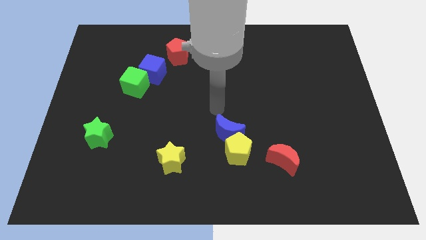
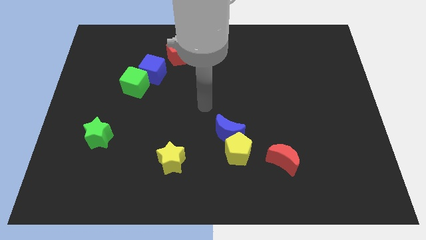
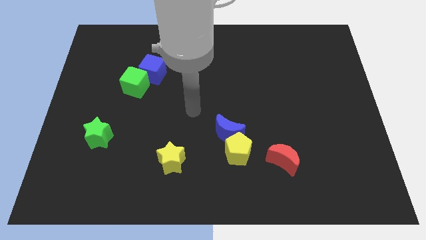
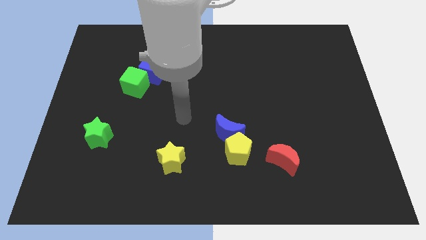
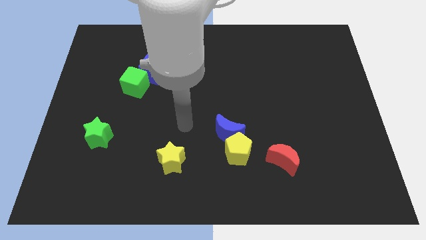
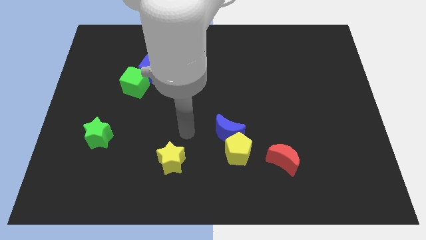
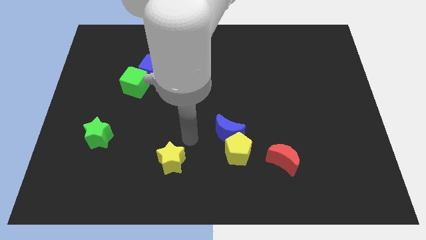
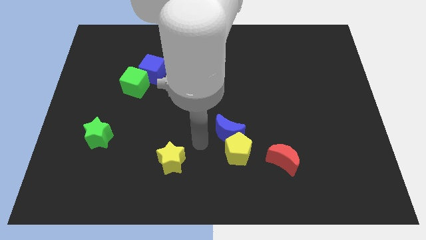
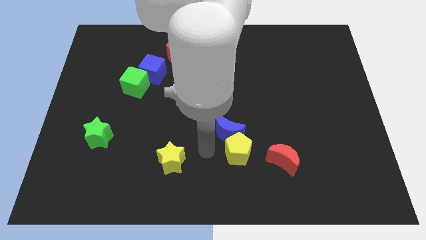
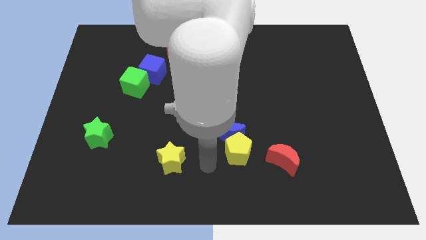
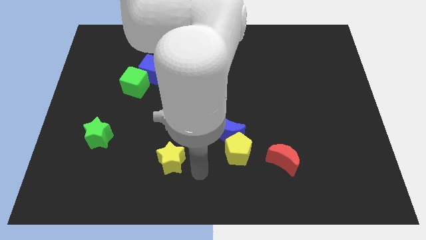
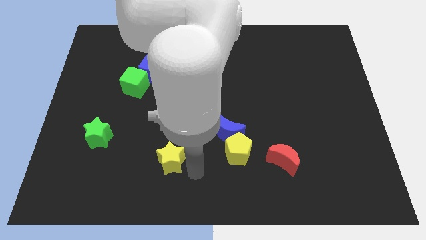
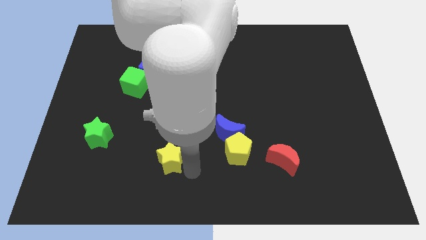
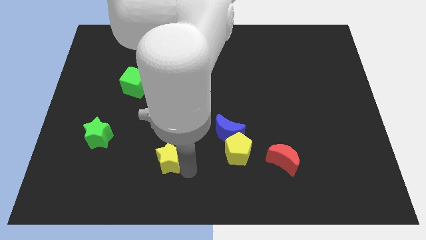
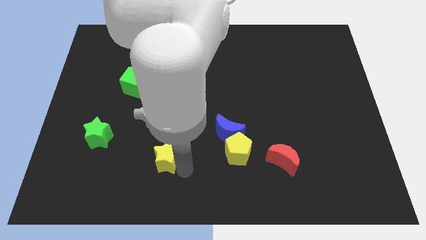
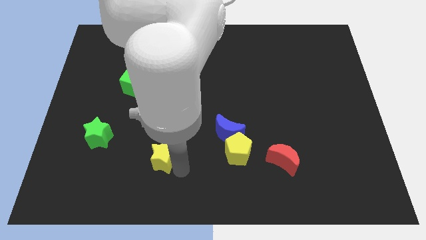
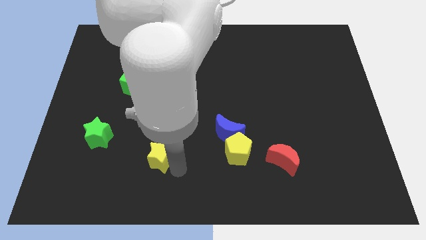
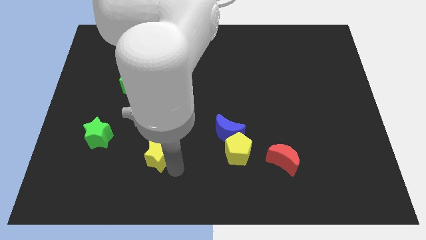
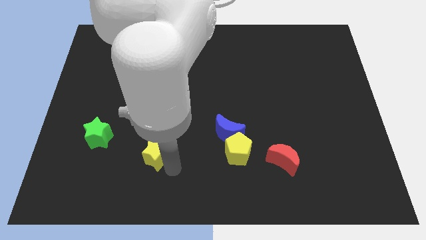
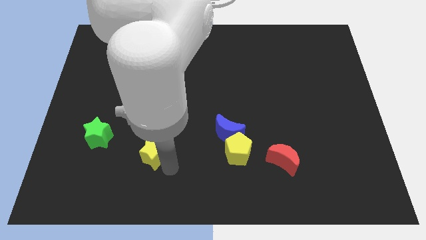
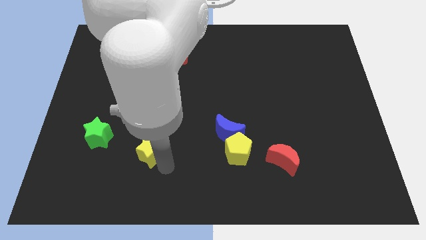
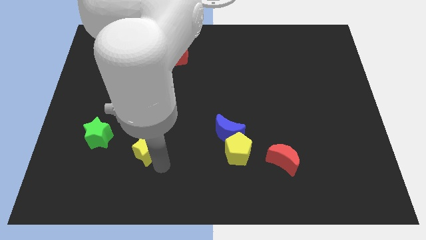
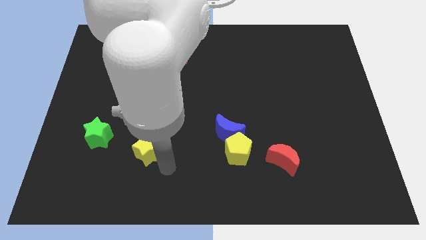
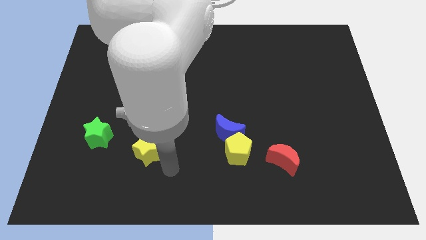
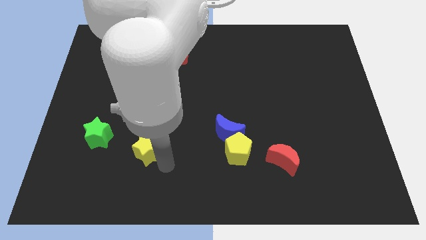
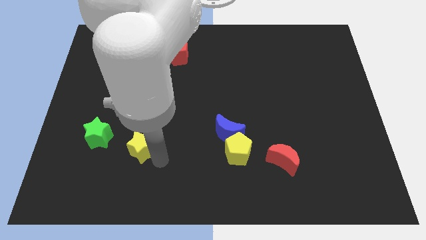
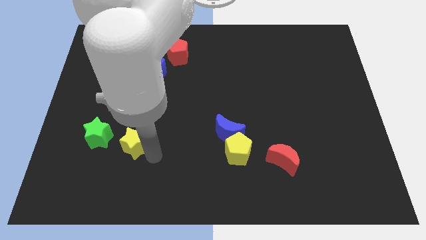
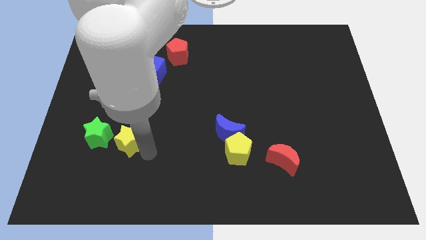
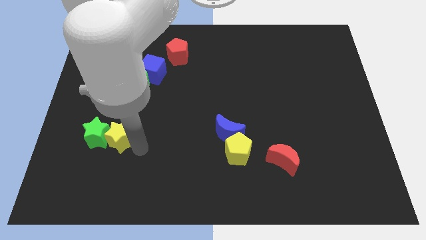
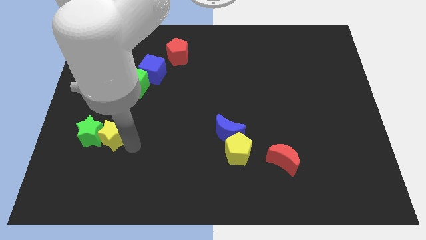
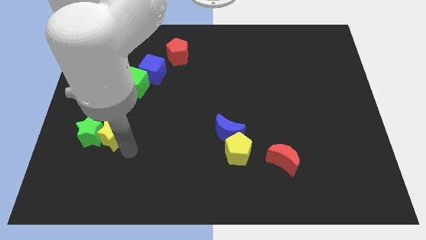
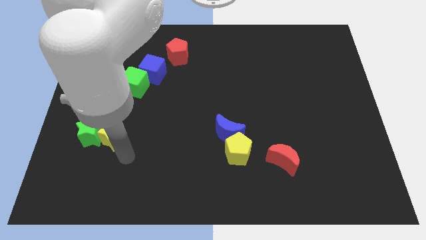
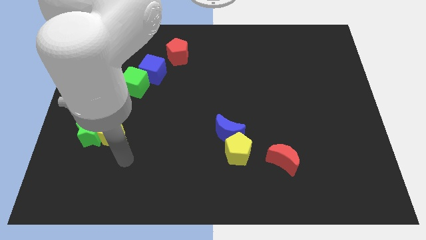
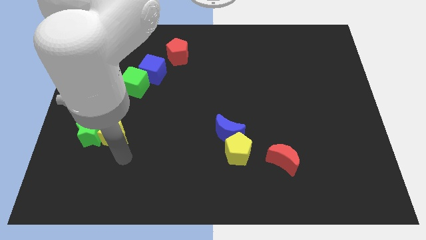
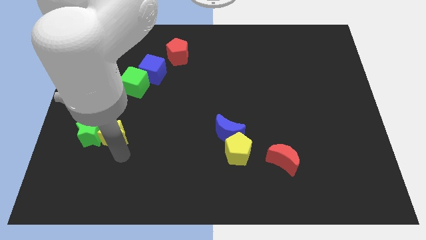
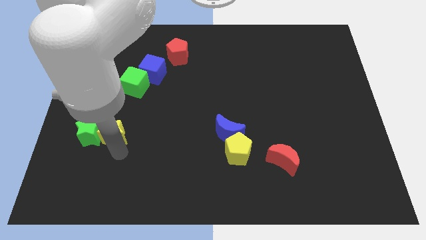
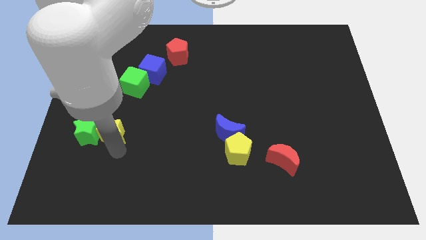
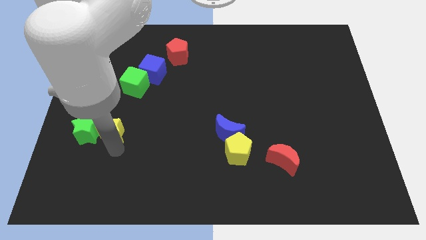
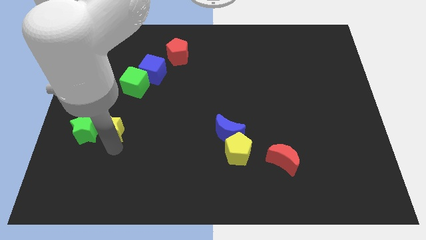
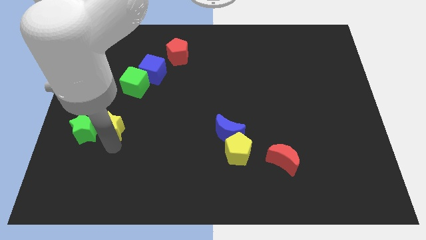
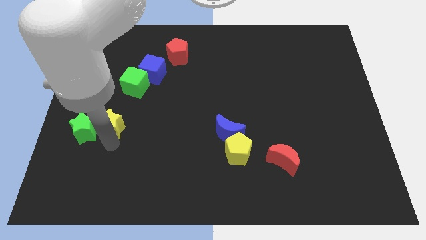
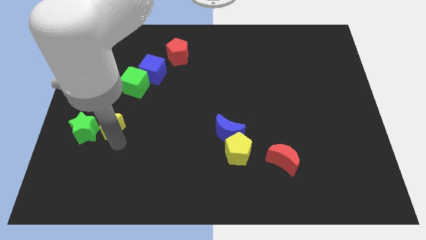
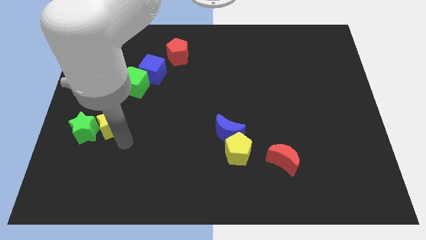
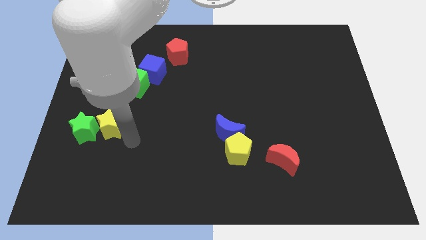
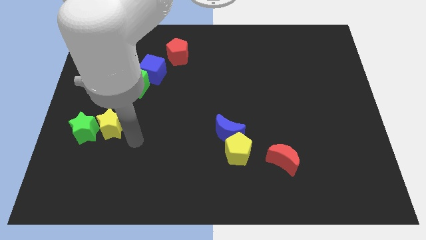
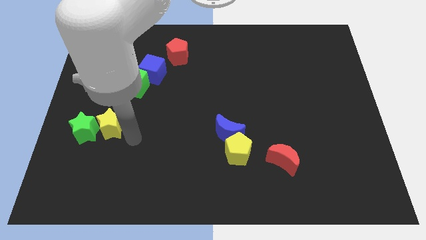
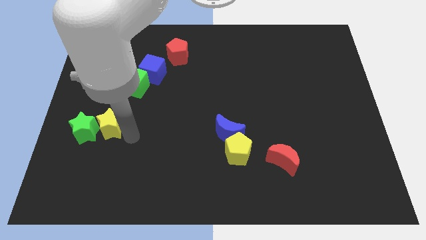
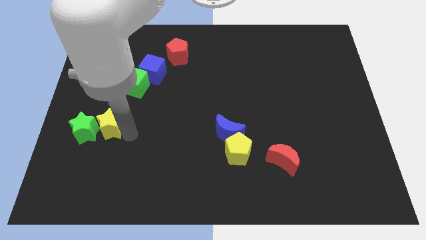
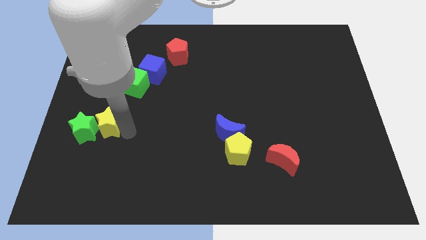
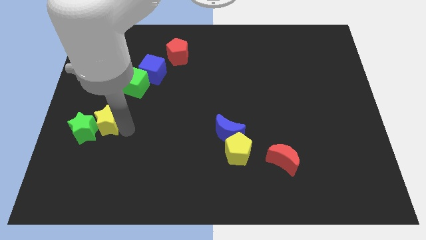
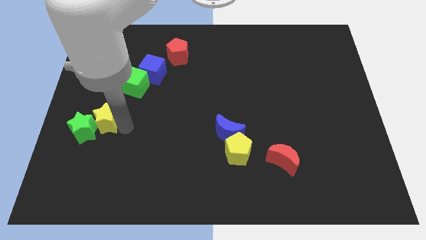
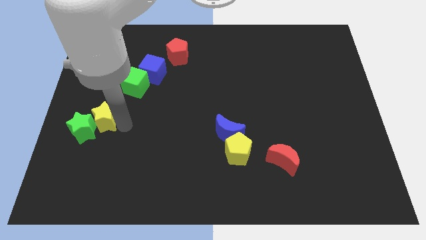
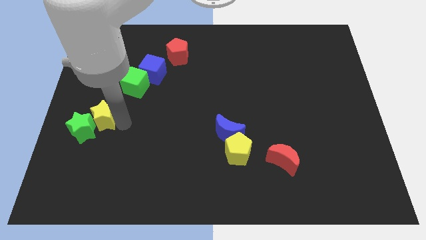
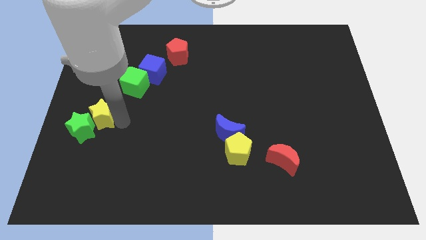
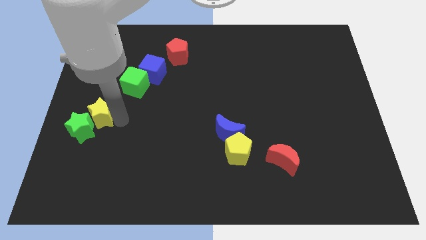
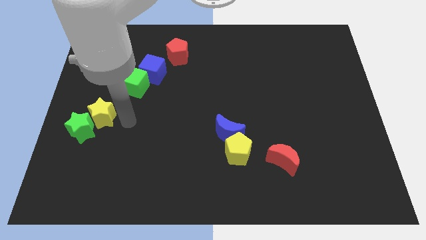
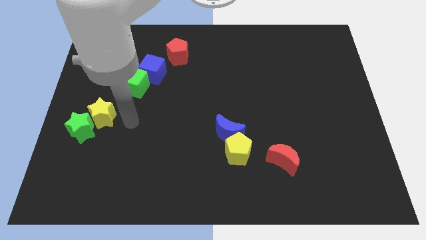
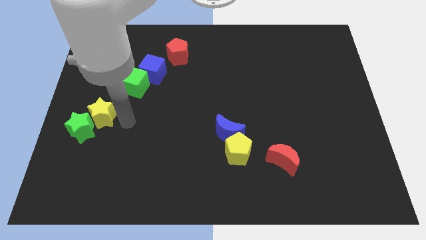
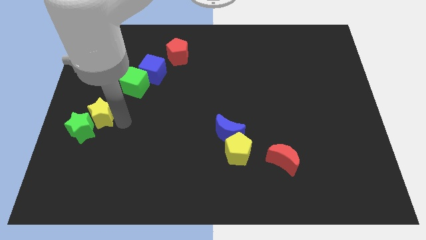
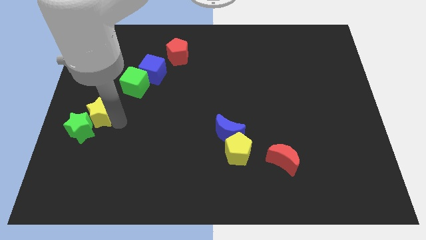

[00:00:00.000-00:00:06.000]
move the yellow star to the left side

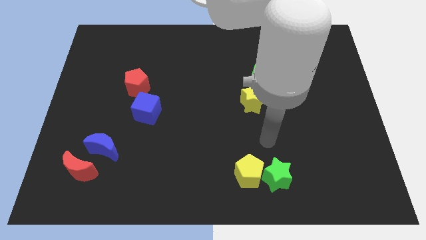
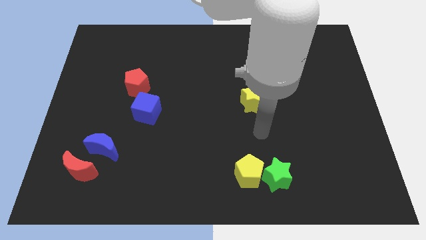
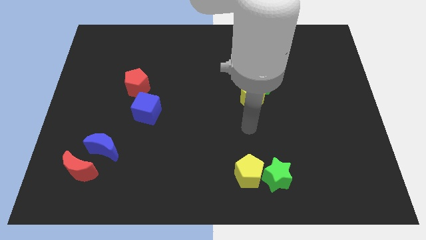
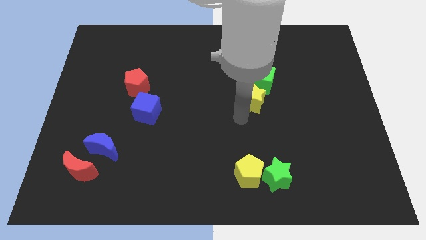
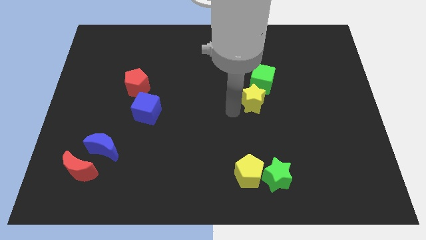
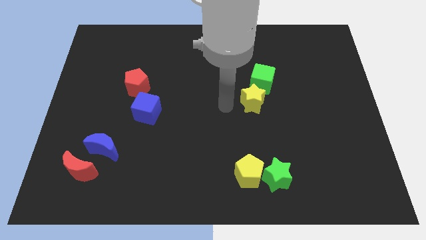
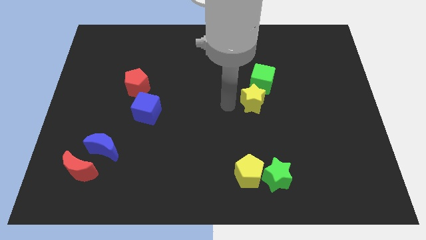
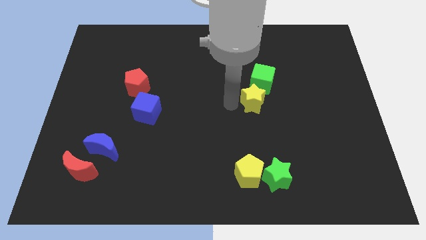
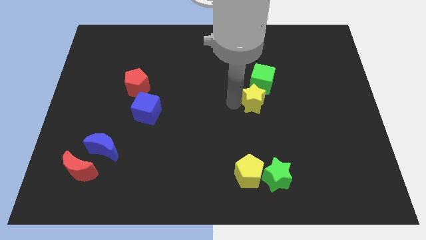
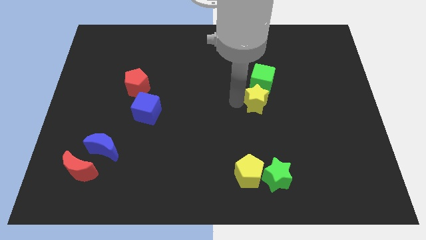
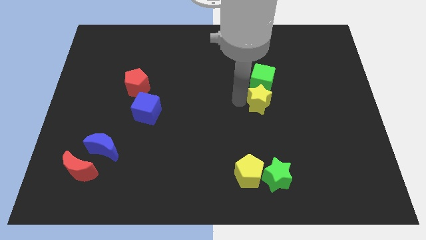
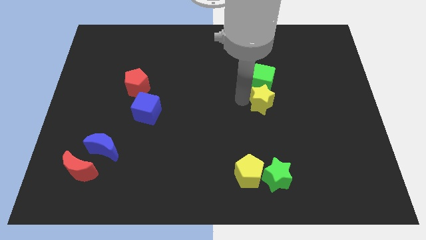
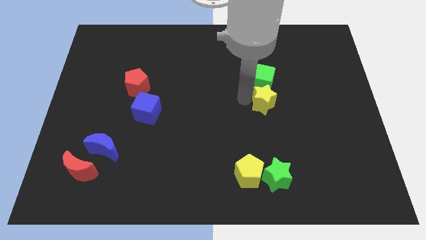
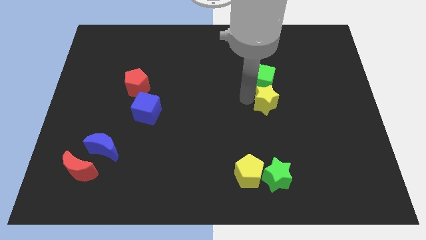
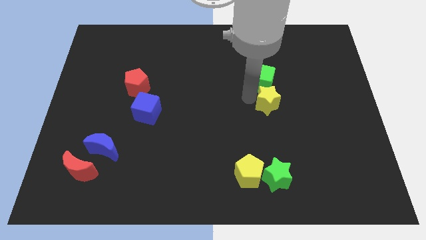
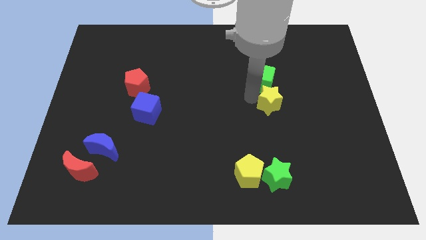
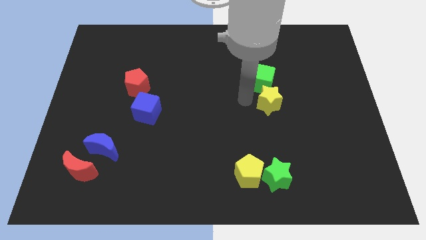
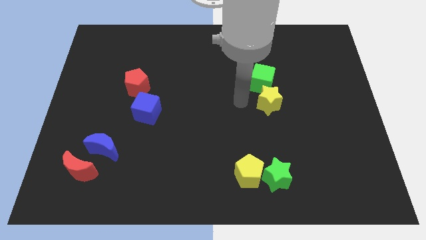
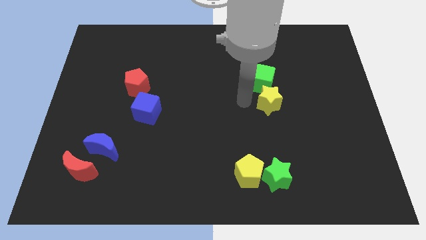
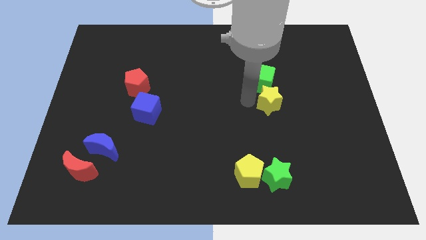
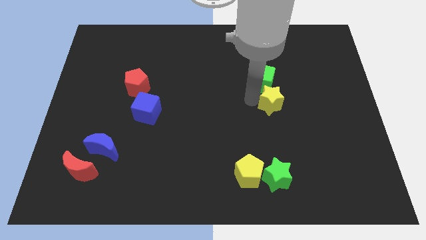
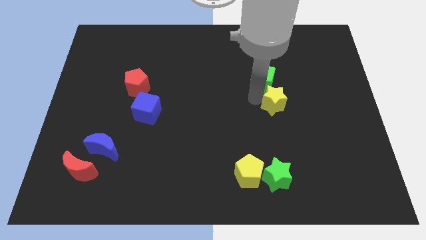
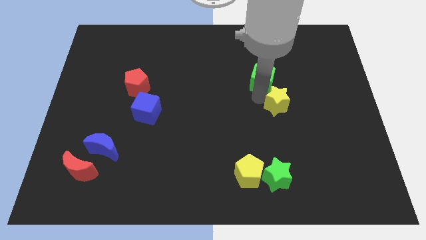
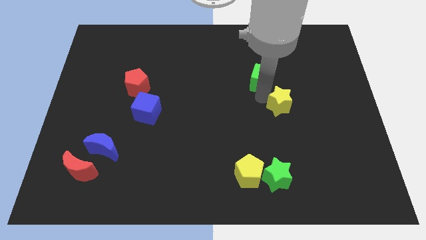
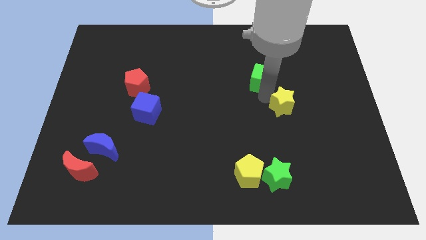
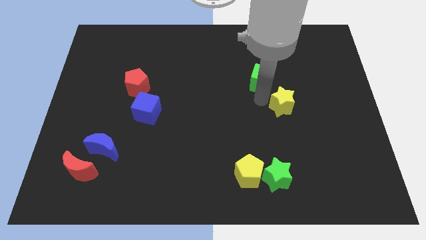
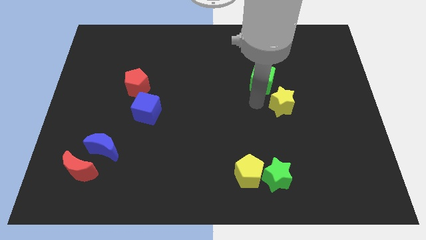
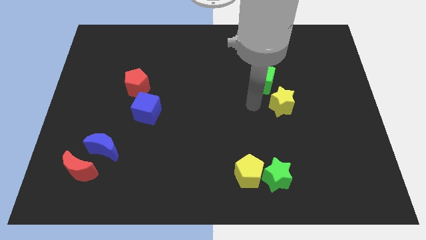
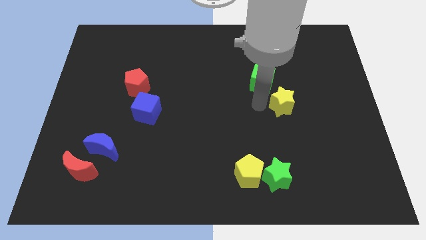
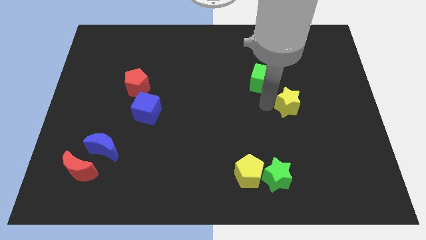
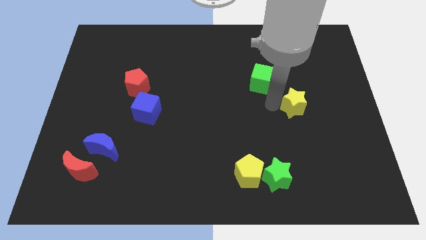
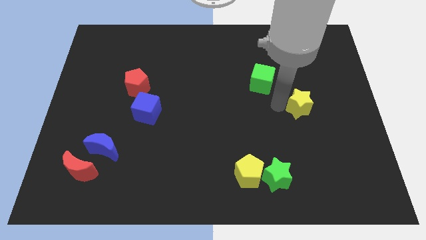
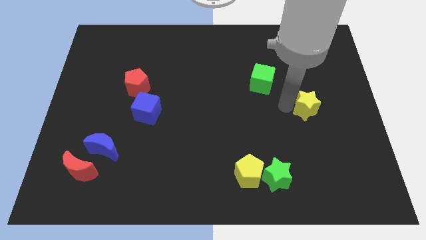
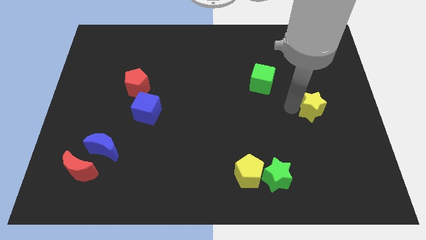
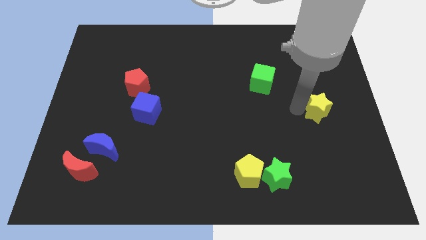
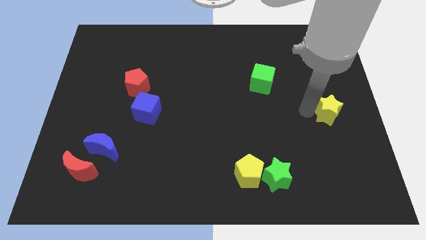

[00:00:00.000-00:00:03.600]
push the yellow star to the right side of the board
